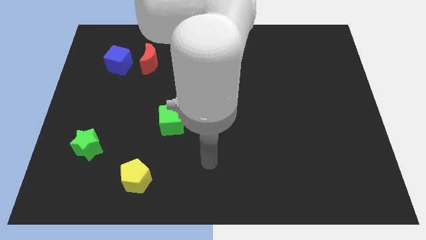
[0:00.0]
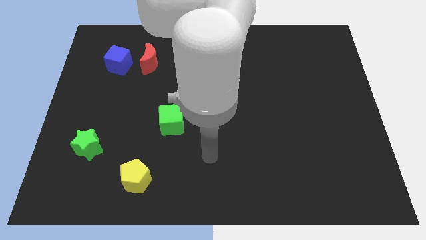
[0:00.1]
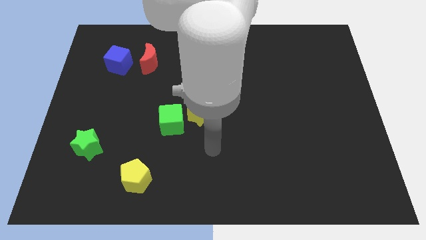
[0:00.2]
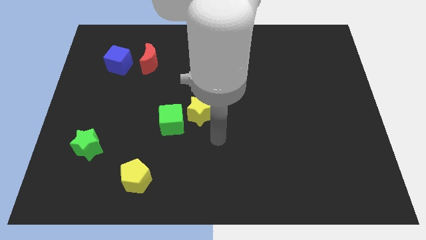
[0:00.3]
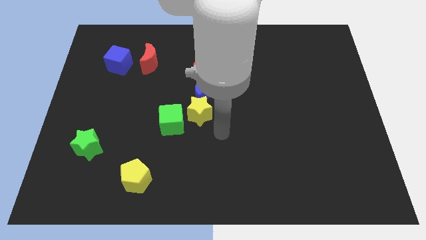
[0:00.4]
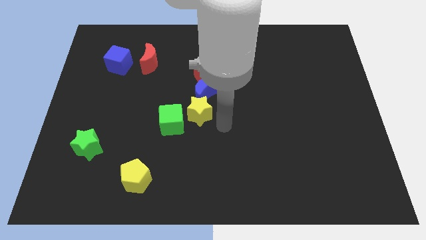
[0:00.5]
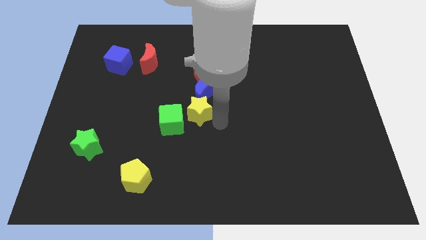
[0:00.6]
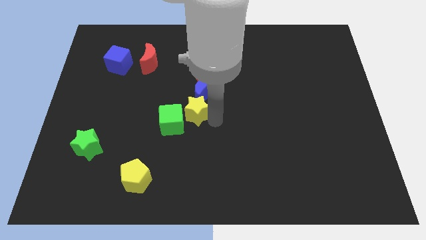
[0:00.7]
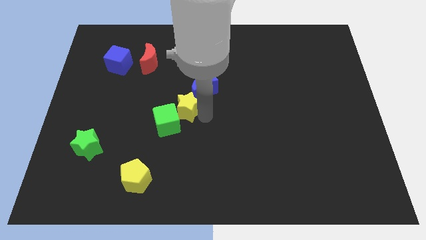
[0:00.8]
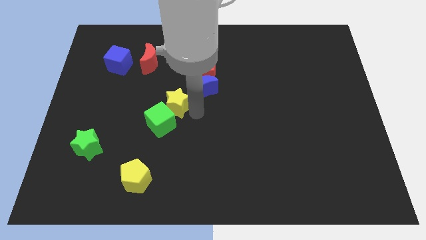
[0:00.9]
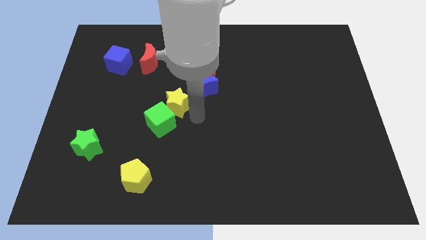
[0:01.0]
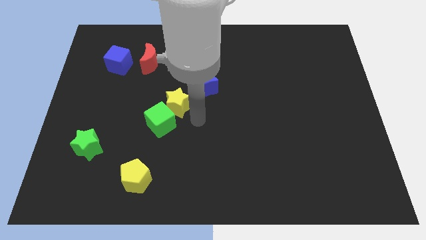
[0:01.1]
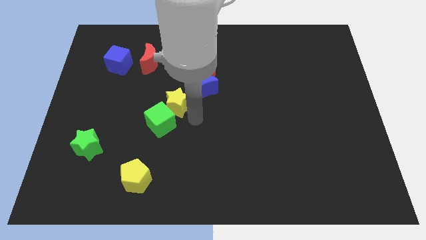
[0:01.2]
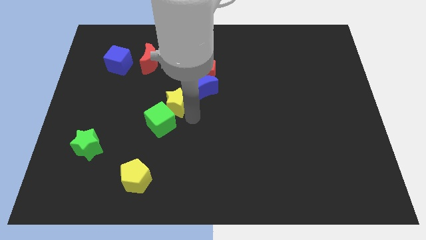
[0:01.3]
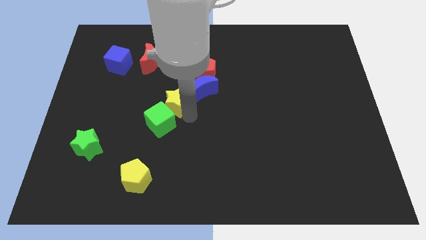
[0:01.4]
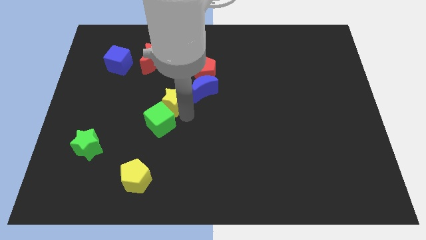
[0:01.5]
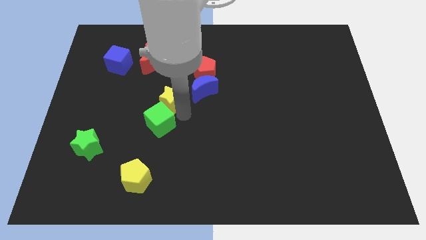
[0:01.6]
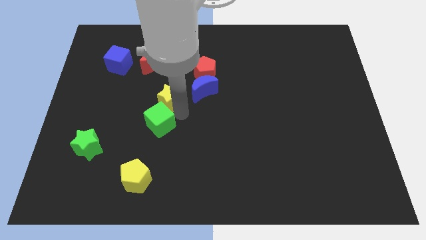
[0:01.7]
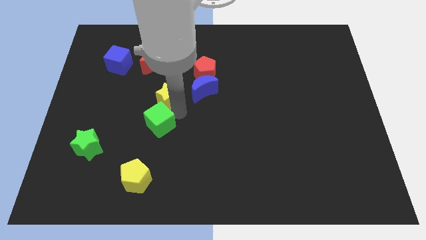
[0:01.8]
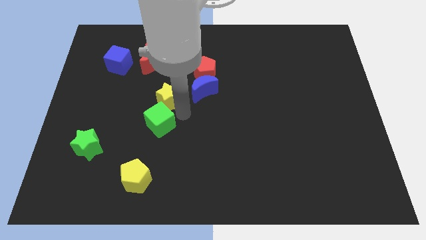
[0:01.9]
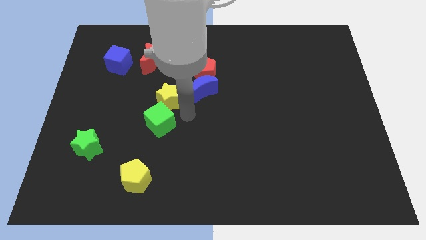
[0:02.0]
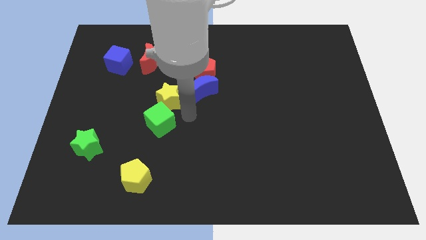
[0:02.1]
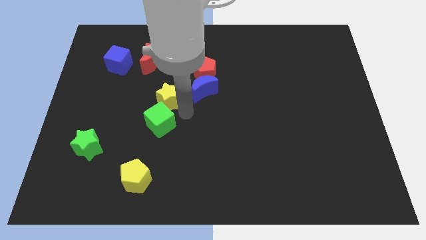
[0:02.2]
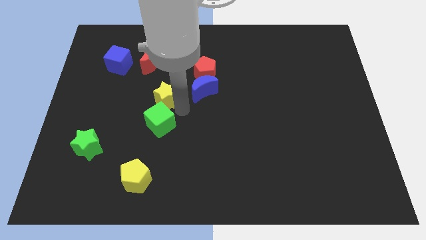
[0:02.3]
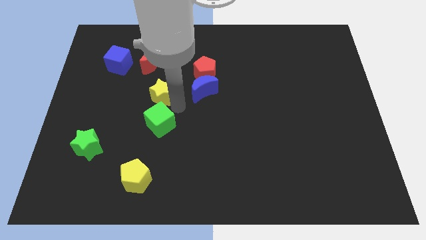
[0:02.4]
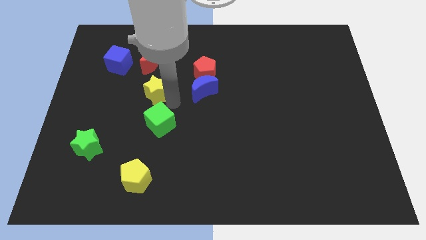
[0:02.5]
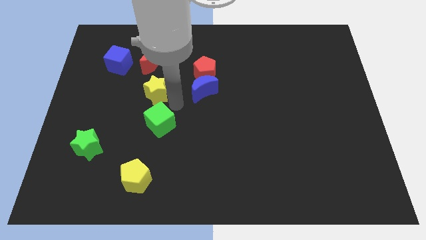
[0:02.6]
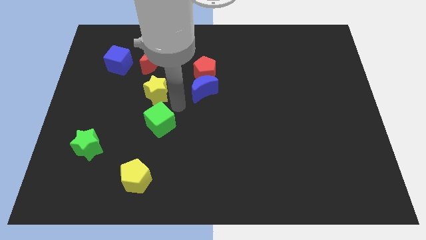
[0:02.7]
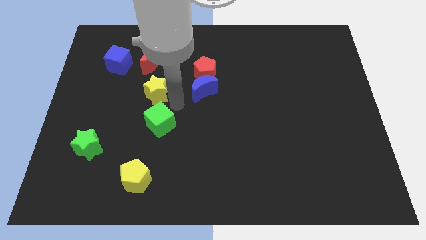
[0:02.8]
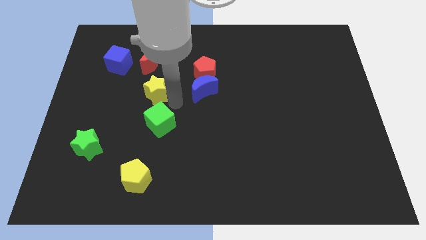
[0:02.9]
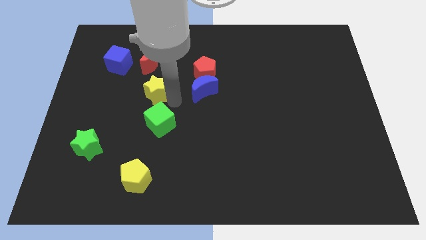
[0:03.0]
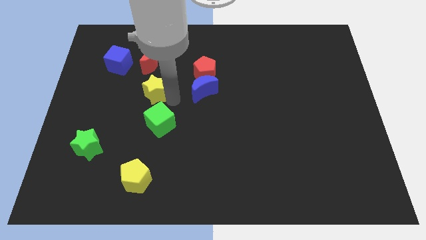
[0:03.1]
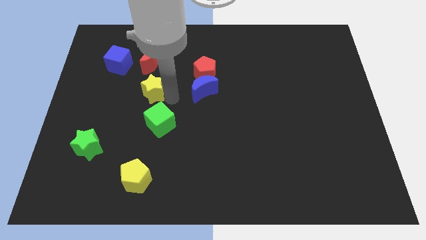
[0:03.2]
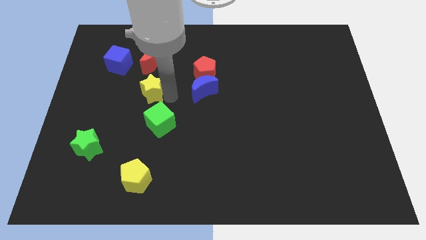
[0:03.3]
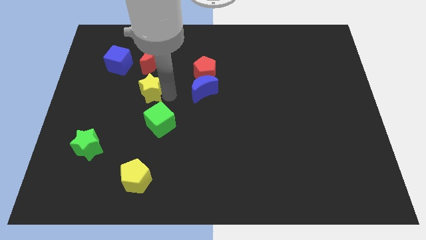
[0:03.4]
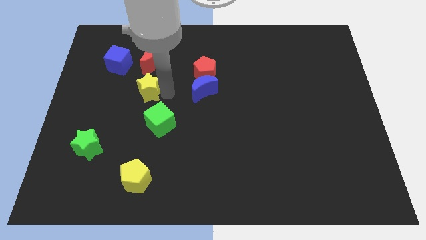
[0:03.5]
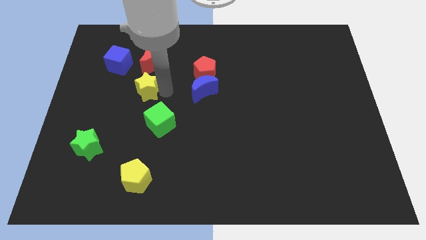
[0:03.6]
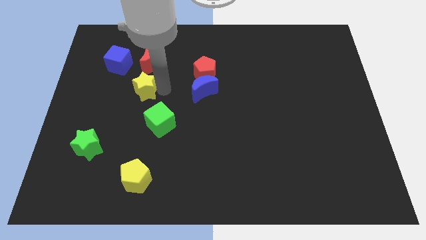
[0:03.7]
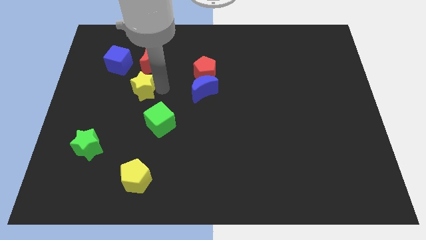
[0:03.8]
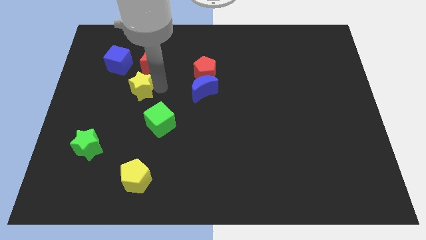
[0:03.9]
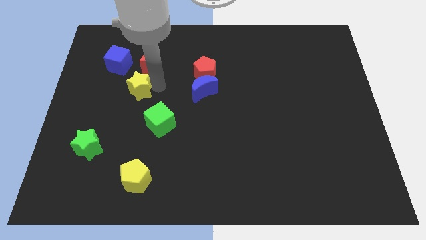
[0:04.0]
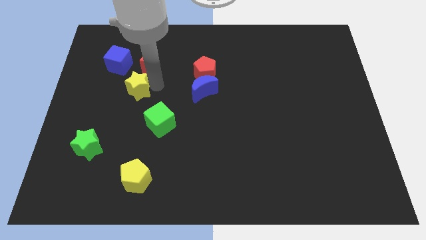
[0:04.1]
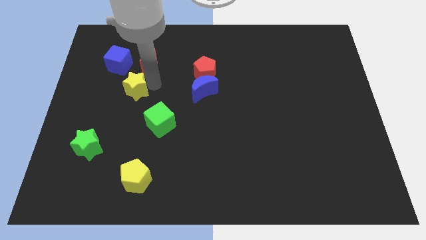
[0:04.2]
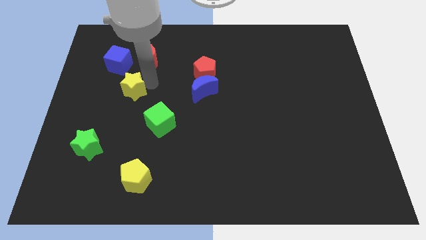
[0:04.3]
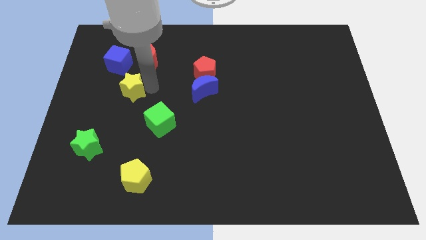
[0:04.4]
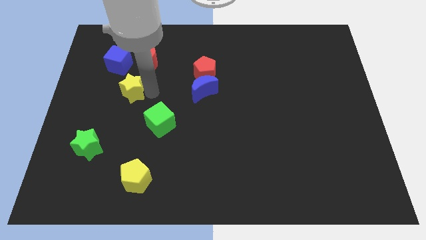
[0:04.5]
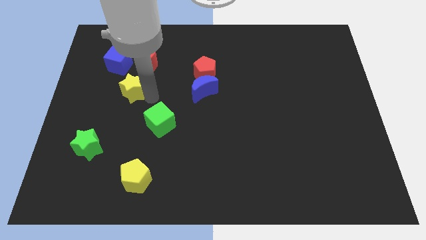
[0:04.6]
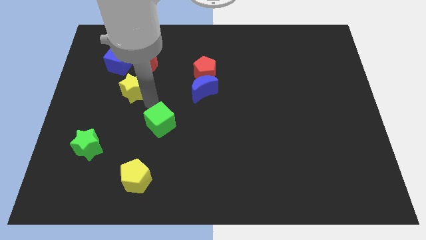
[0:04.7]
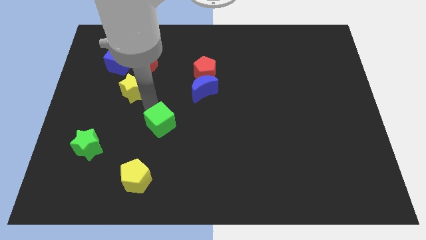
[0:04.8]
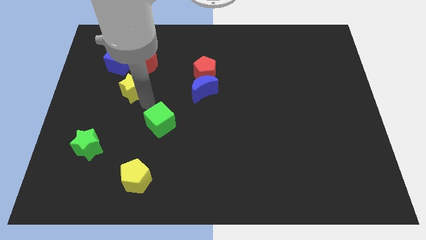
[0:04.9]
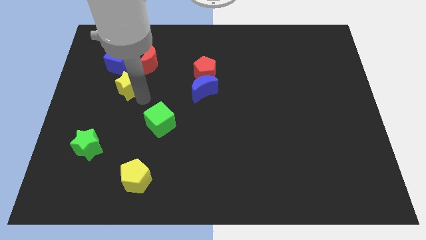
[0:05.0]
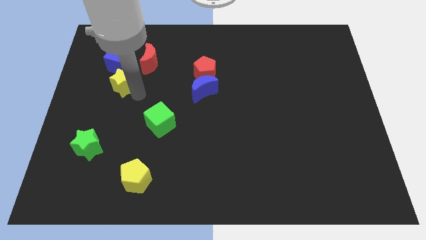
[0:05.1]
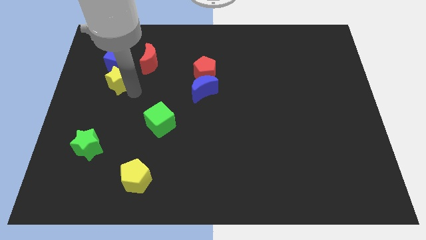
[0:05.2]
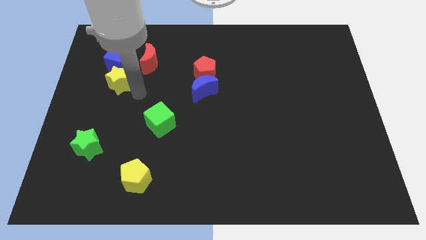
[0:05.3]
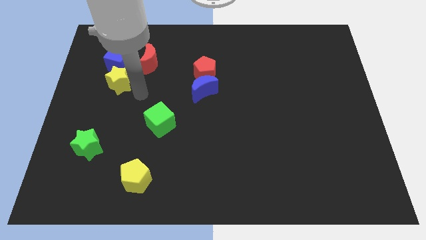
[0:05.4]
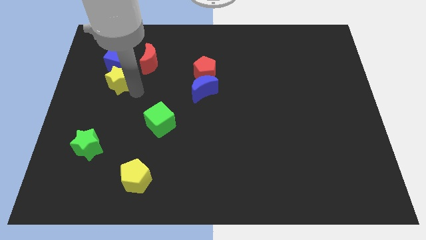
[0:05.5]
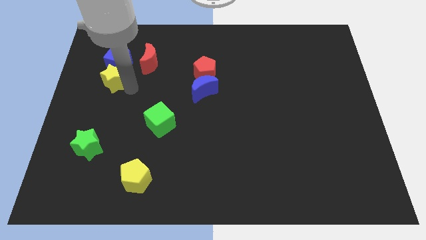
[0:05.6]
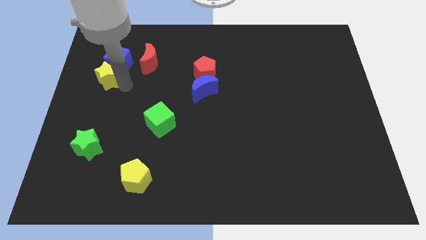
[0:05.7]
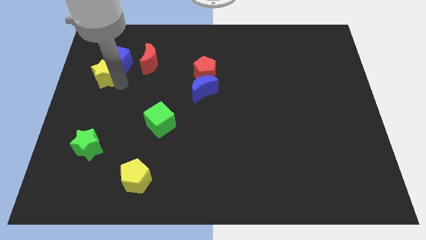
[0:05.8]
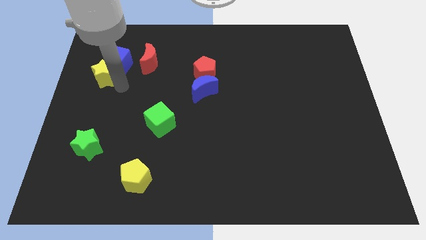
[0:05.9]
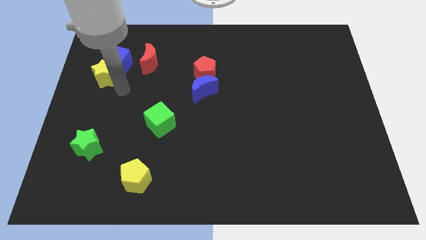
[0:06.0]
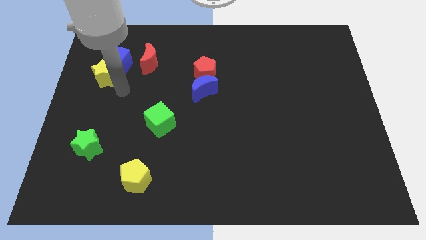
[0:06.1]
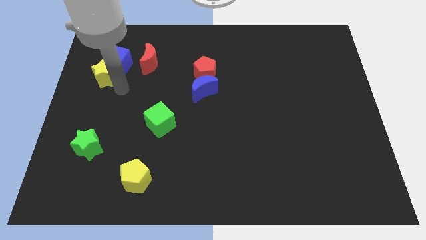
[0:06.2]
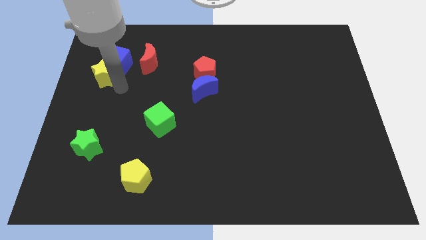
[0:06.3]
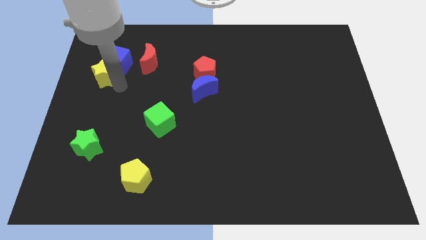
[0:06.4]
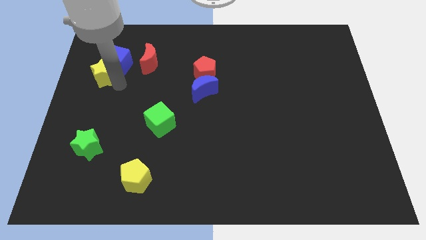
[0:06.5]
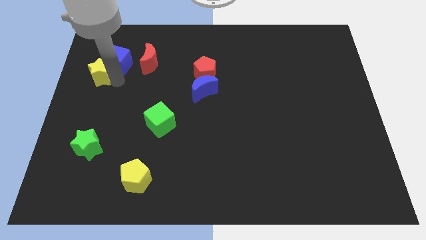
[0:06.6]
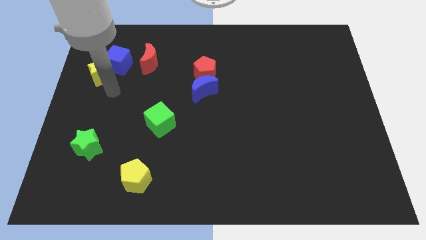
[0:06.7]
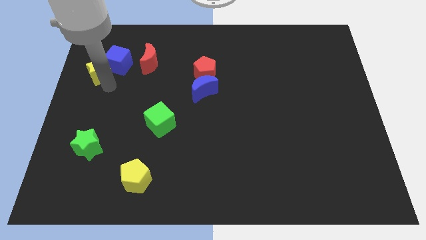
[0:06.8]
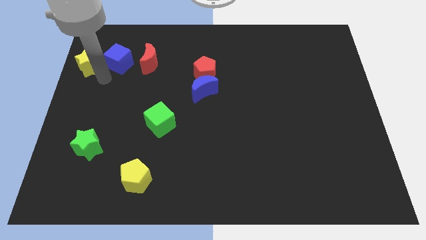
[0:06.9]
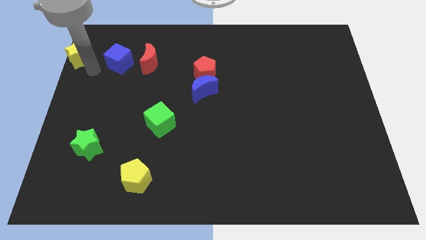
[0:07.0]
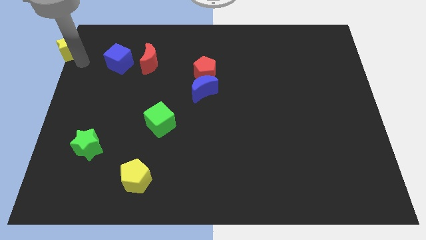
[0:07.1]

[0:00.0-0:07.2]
push the yellow star to the top left corner
